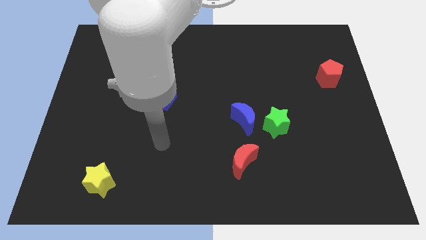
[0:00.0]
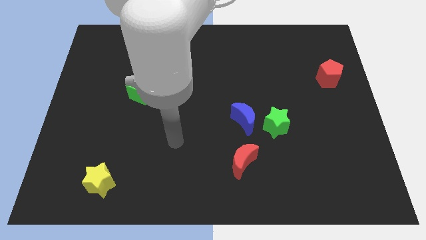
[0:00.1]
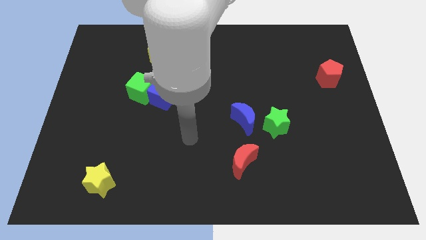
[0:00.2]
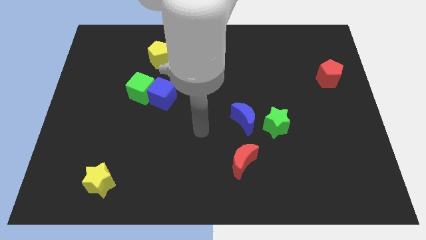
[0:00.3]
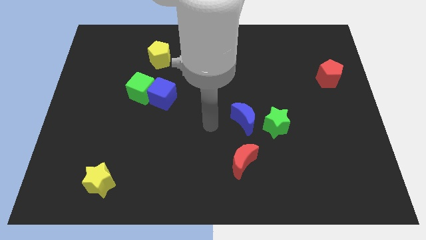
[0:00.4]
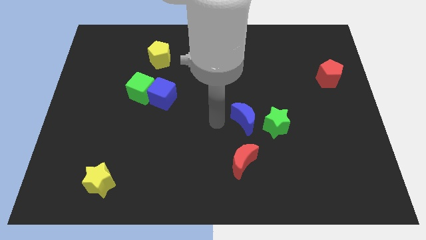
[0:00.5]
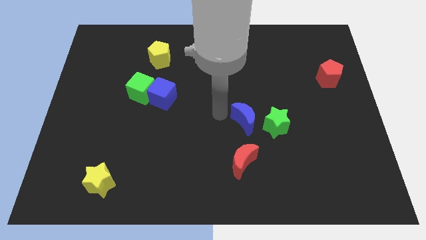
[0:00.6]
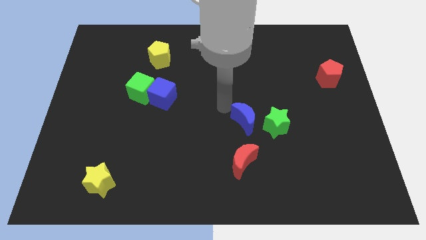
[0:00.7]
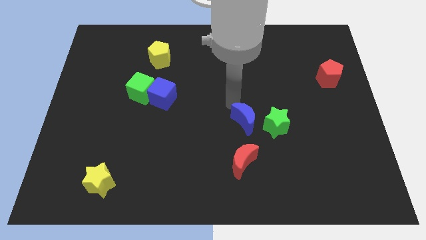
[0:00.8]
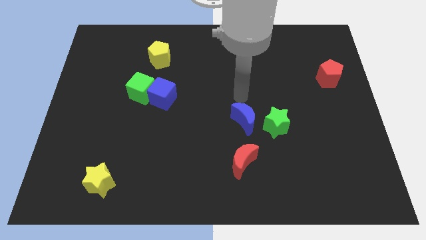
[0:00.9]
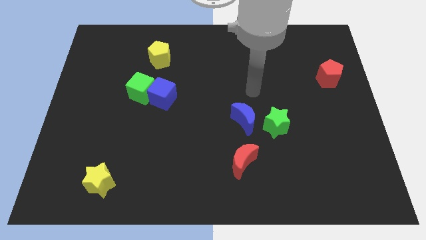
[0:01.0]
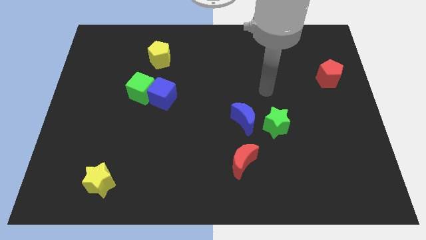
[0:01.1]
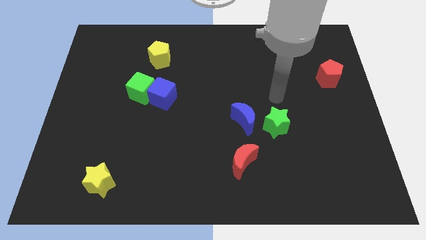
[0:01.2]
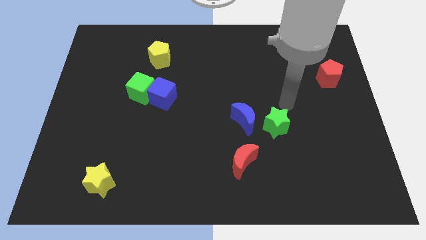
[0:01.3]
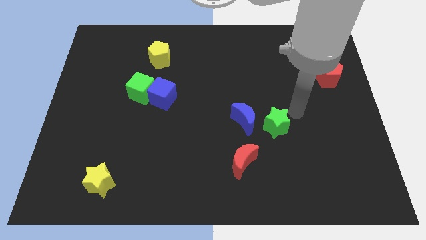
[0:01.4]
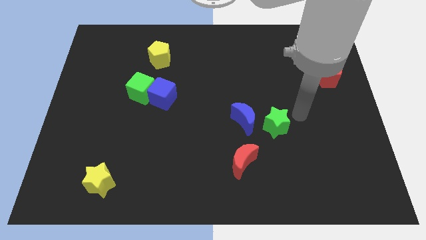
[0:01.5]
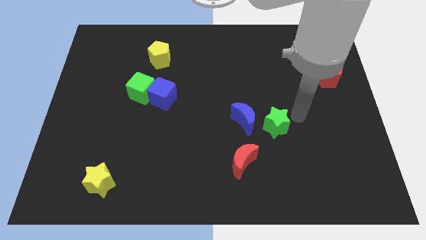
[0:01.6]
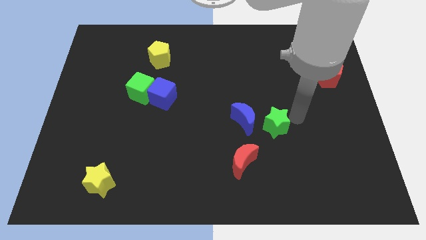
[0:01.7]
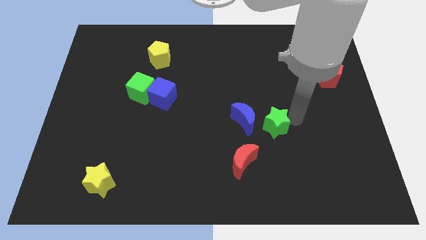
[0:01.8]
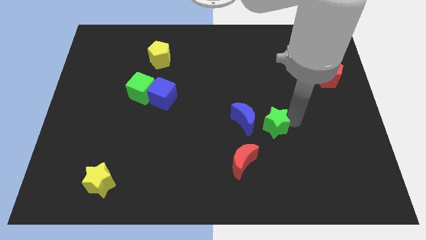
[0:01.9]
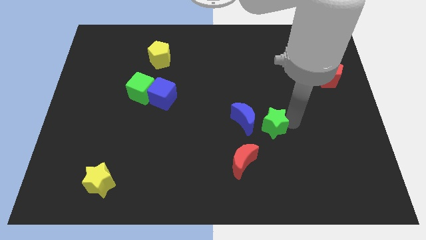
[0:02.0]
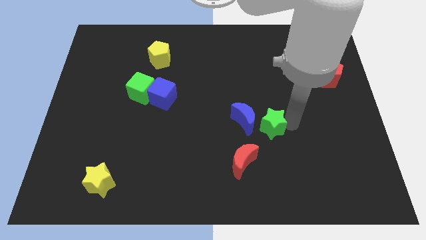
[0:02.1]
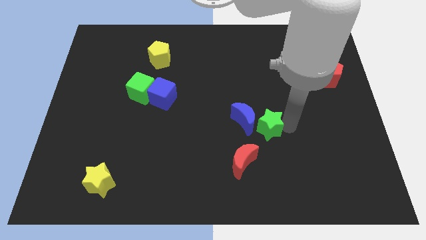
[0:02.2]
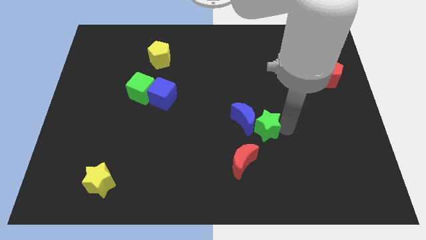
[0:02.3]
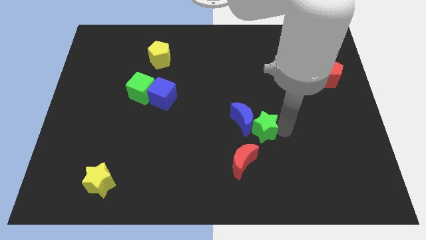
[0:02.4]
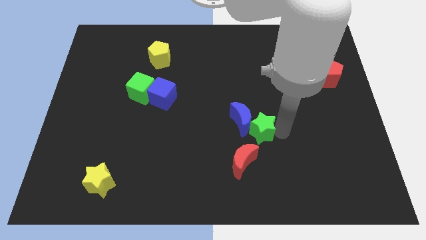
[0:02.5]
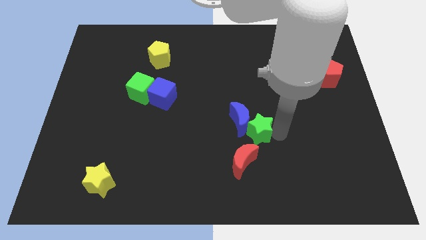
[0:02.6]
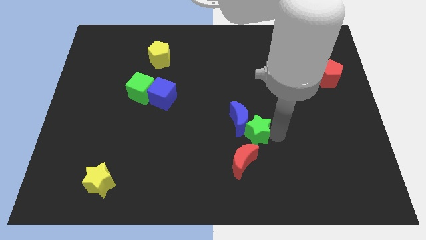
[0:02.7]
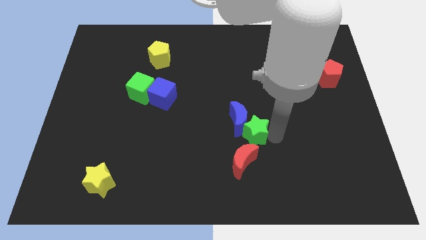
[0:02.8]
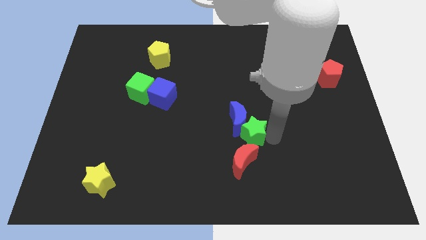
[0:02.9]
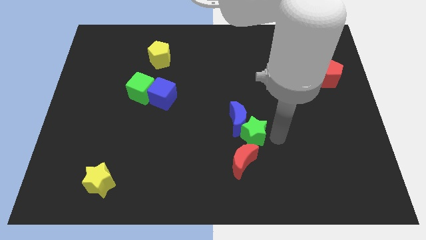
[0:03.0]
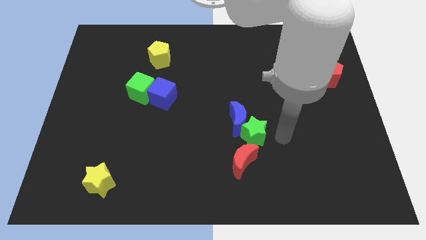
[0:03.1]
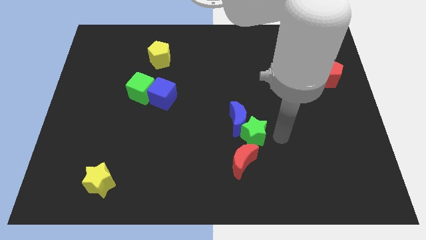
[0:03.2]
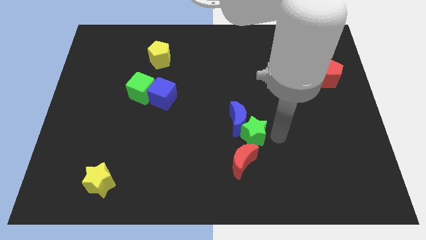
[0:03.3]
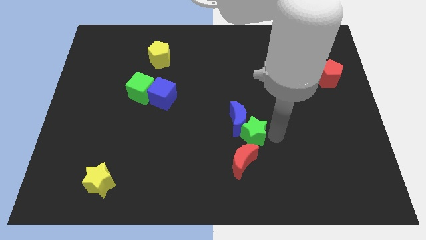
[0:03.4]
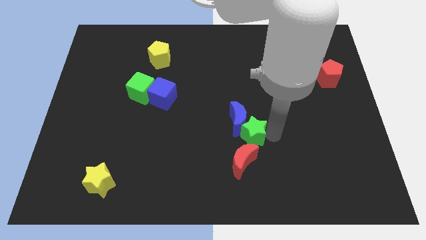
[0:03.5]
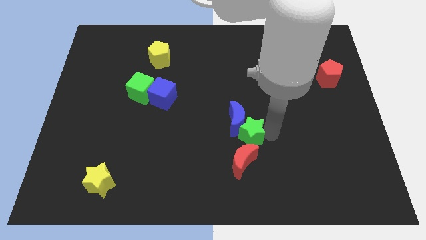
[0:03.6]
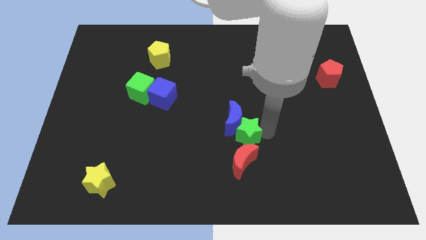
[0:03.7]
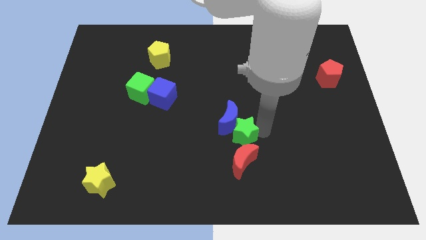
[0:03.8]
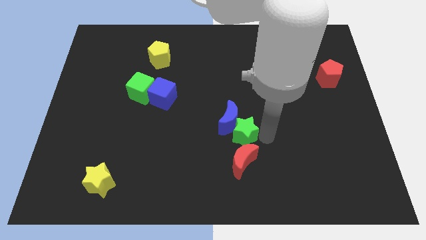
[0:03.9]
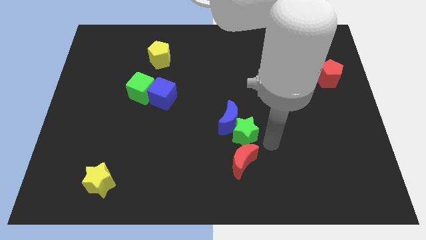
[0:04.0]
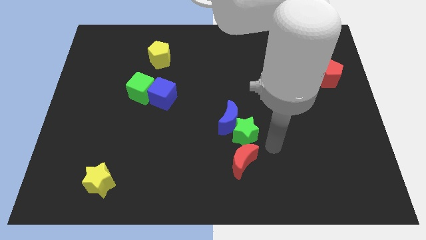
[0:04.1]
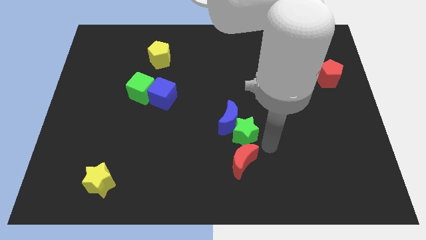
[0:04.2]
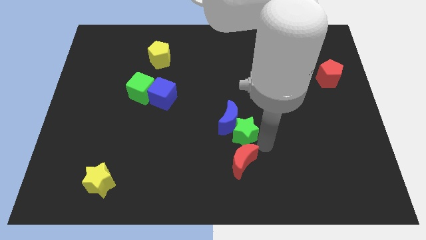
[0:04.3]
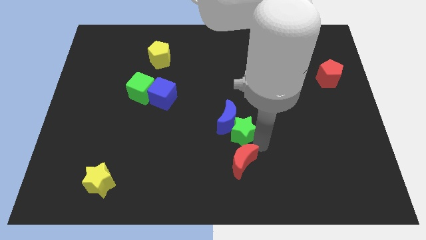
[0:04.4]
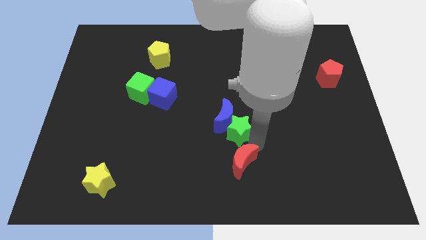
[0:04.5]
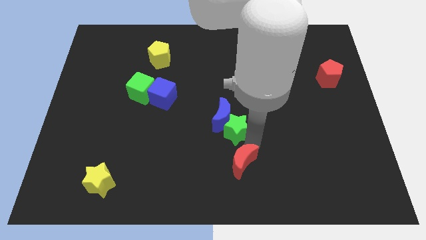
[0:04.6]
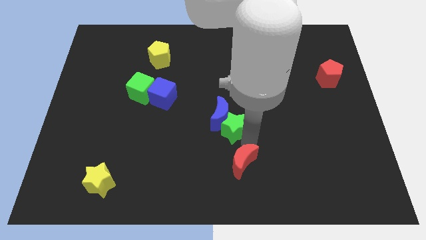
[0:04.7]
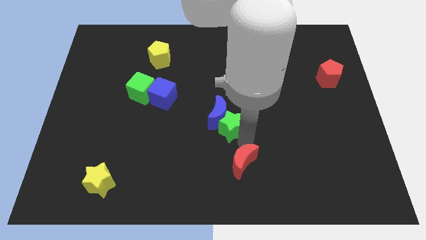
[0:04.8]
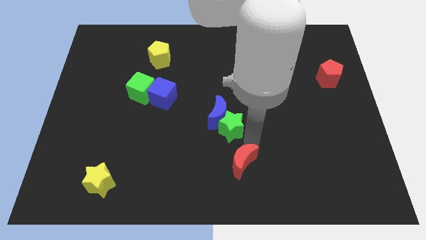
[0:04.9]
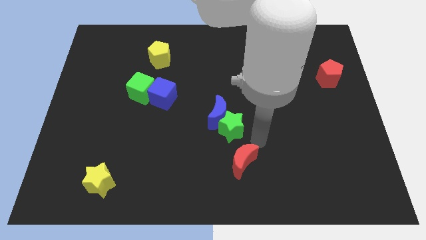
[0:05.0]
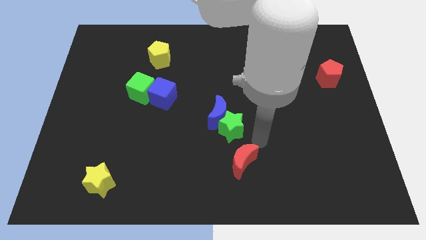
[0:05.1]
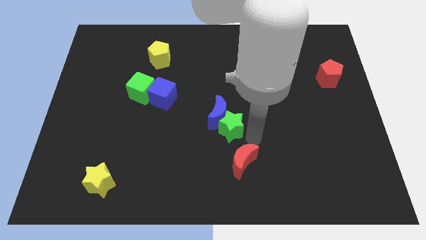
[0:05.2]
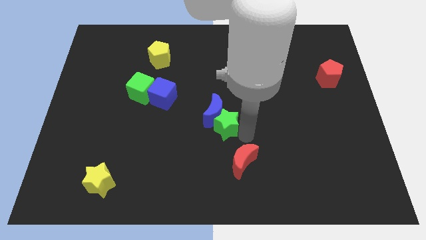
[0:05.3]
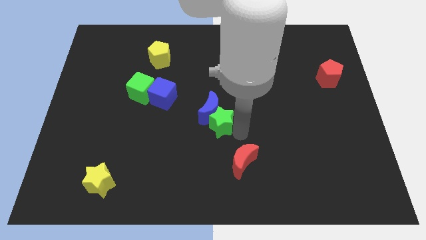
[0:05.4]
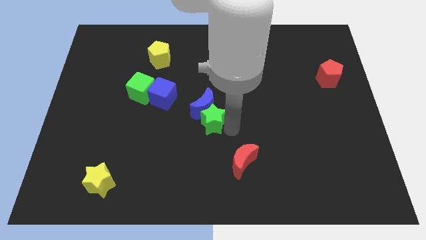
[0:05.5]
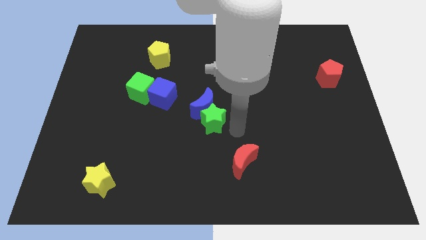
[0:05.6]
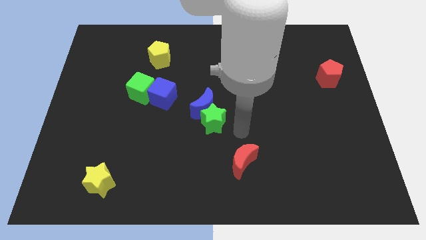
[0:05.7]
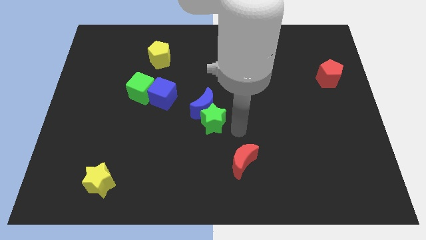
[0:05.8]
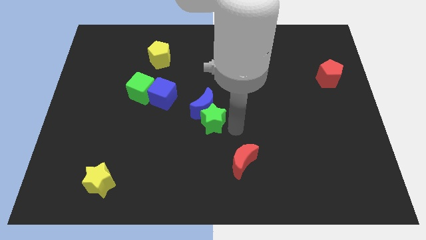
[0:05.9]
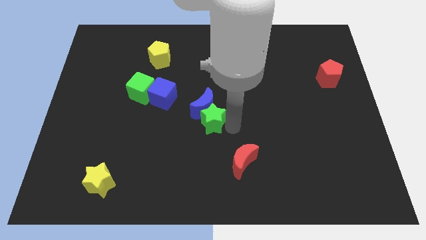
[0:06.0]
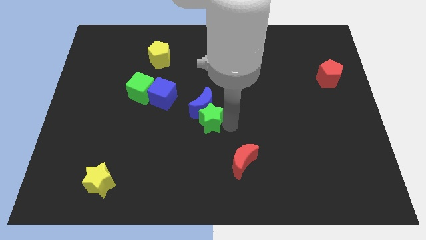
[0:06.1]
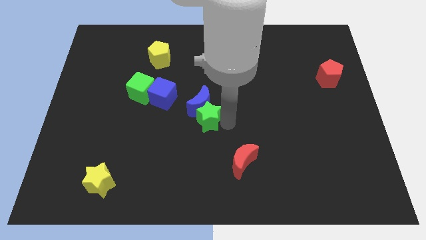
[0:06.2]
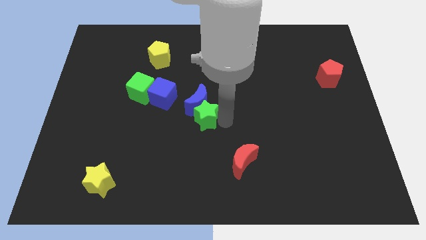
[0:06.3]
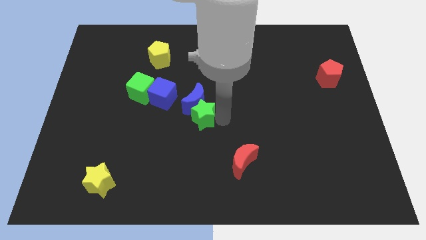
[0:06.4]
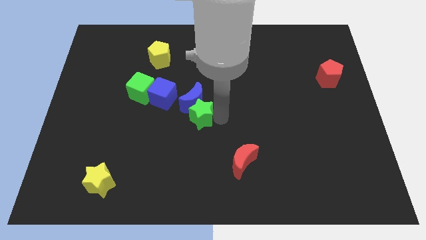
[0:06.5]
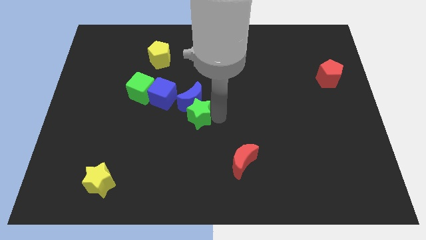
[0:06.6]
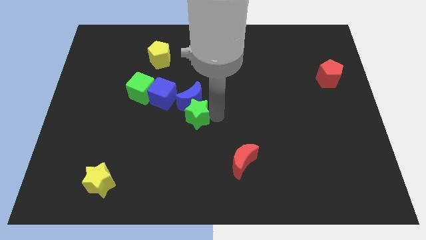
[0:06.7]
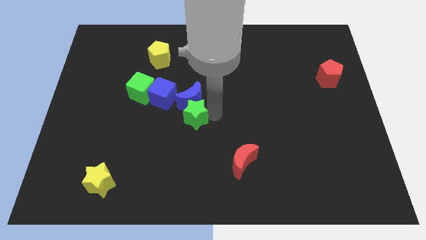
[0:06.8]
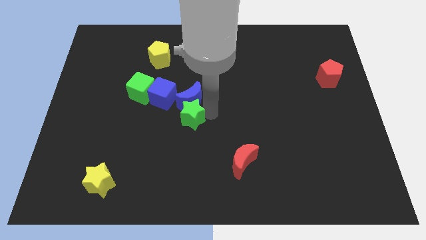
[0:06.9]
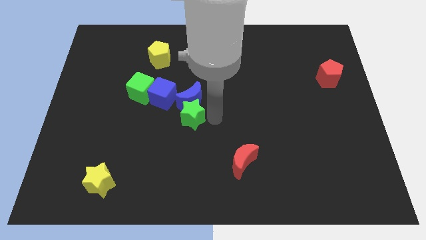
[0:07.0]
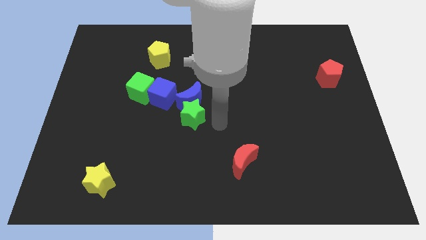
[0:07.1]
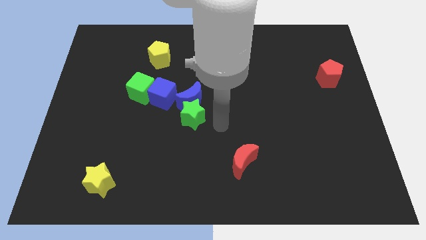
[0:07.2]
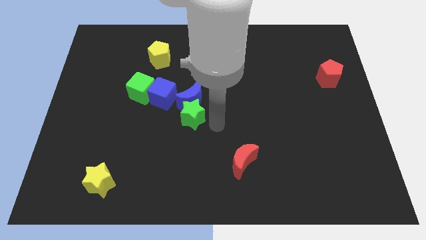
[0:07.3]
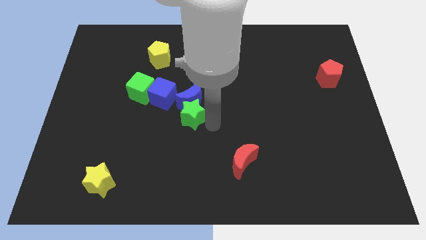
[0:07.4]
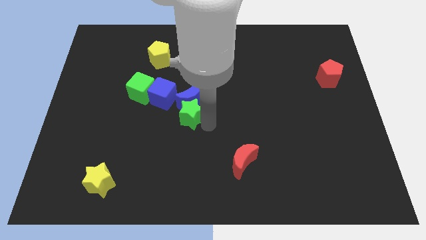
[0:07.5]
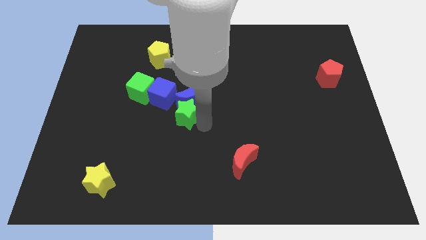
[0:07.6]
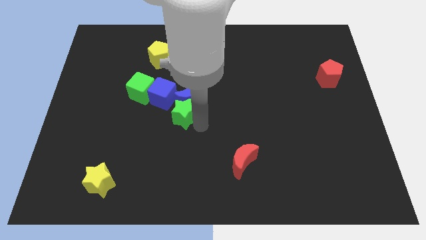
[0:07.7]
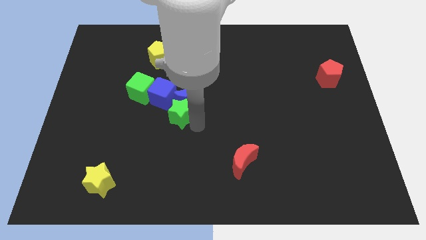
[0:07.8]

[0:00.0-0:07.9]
put the green star diagonally down and to the right of the green cube
